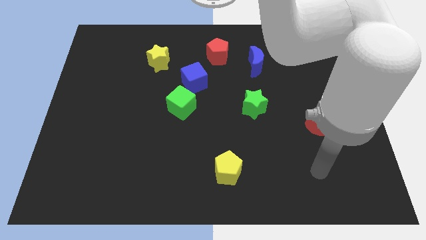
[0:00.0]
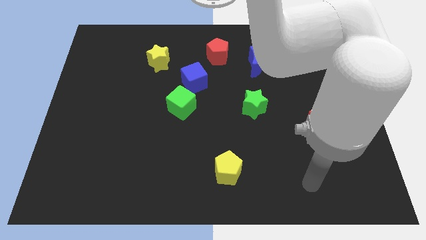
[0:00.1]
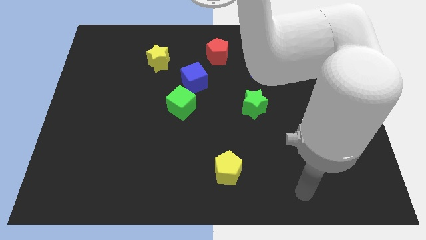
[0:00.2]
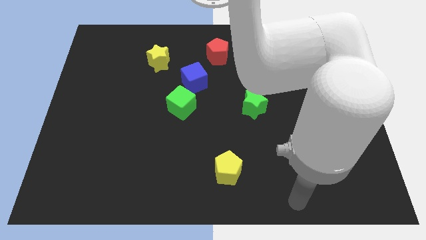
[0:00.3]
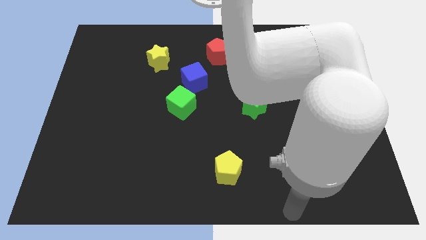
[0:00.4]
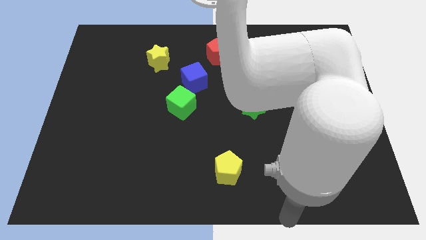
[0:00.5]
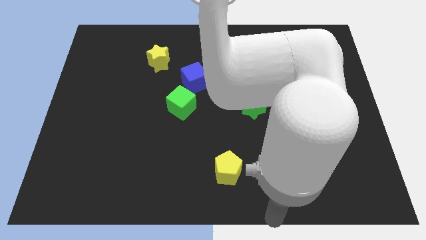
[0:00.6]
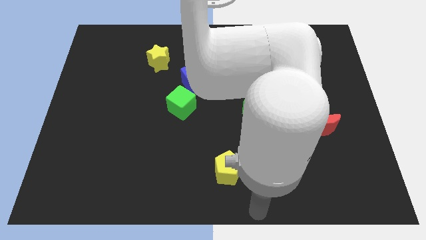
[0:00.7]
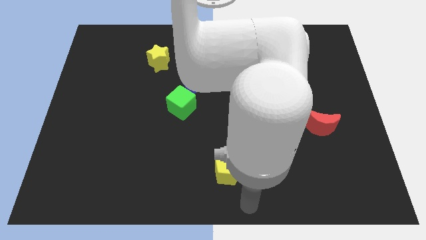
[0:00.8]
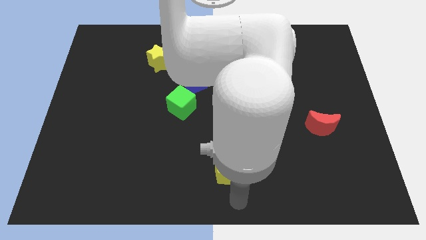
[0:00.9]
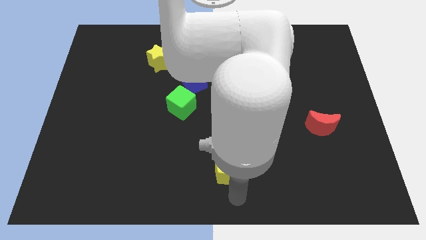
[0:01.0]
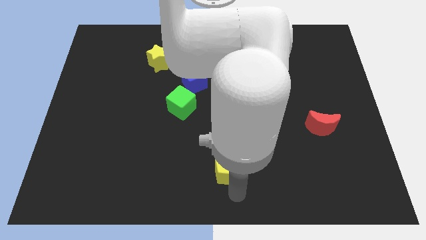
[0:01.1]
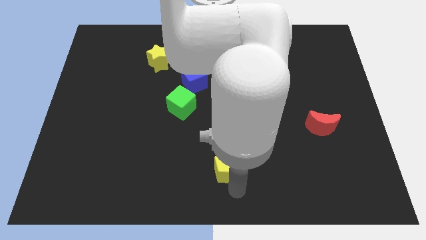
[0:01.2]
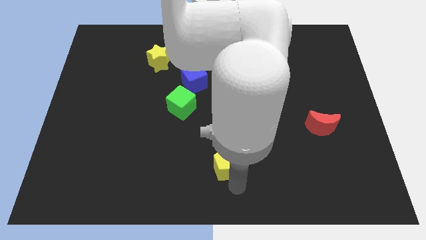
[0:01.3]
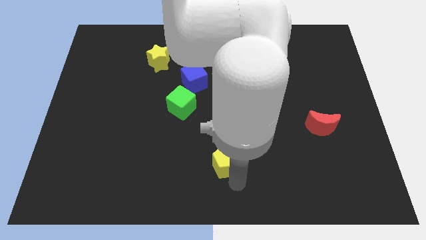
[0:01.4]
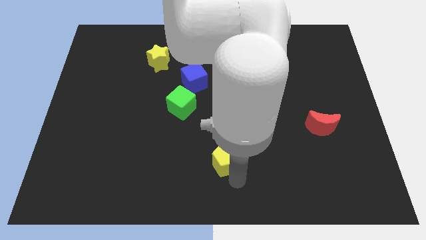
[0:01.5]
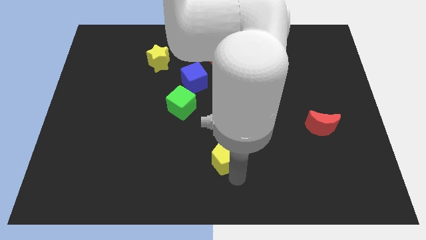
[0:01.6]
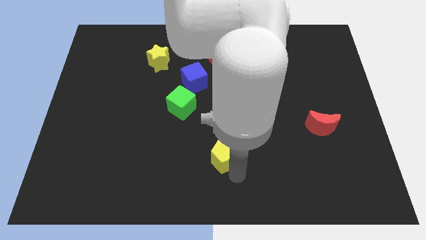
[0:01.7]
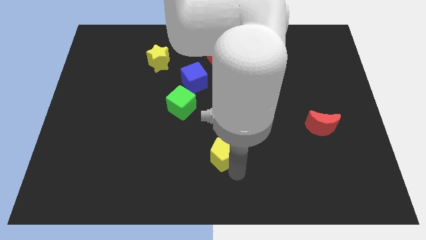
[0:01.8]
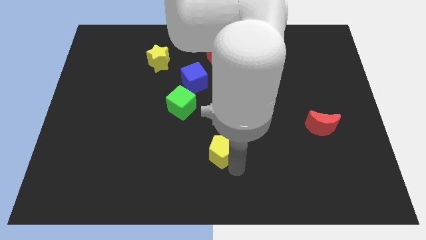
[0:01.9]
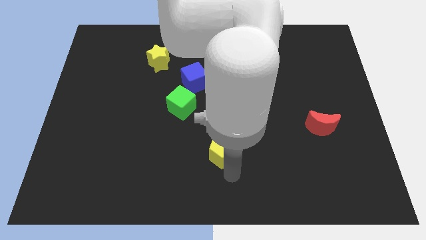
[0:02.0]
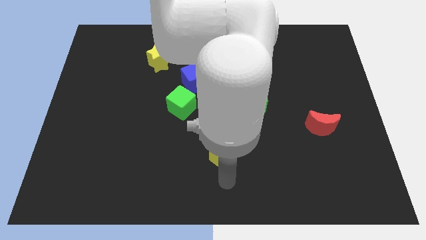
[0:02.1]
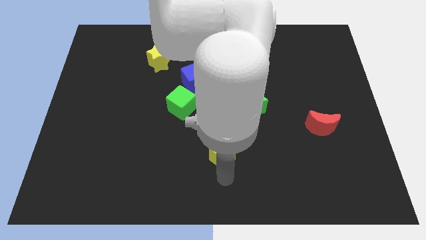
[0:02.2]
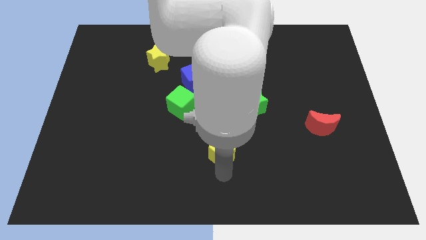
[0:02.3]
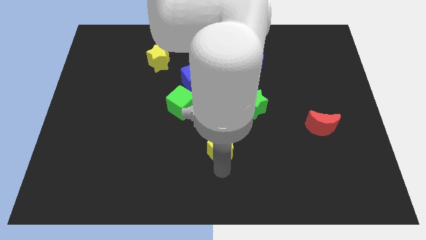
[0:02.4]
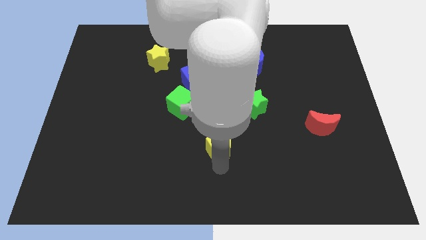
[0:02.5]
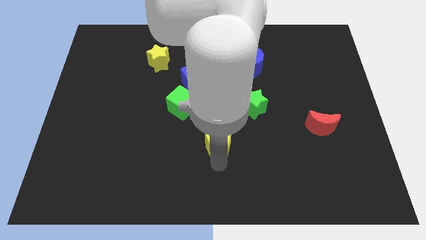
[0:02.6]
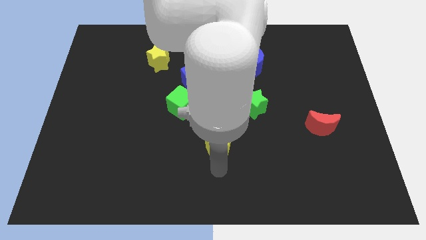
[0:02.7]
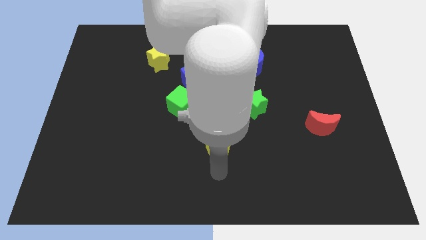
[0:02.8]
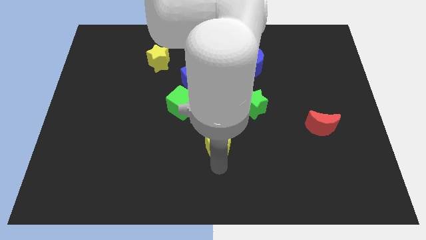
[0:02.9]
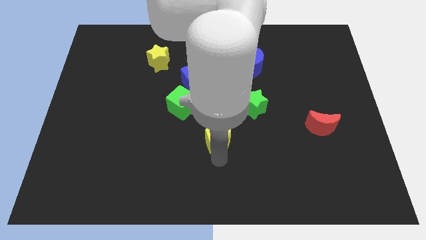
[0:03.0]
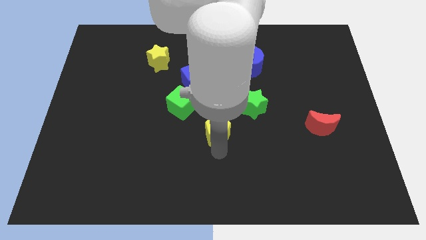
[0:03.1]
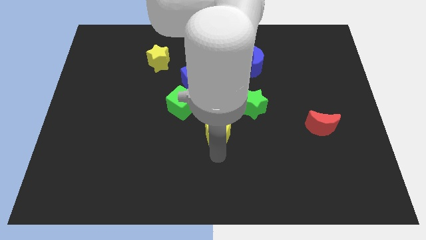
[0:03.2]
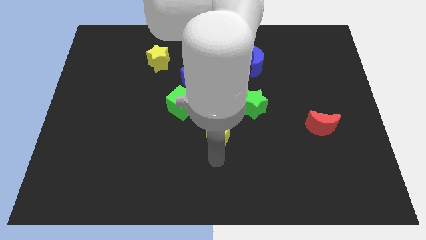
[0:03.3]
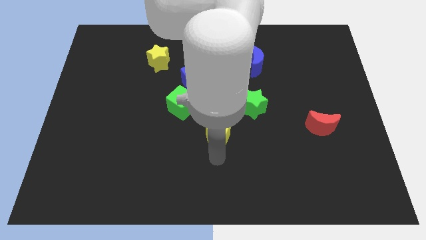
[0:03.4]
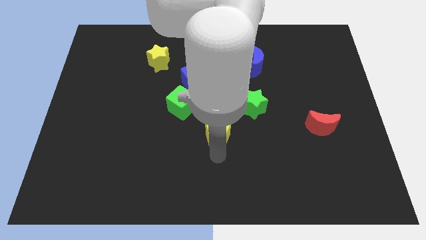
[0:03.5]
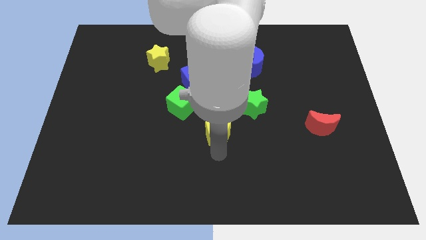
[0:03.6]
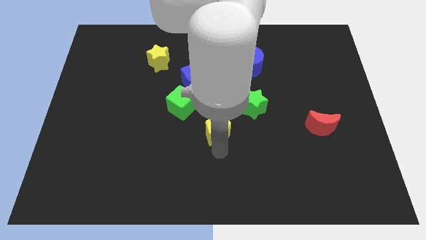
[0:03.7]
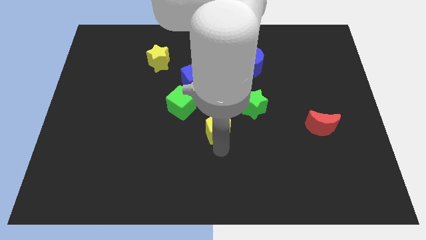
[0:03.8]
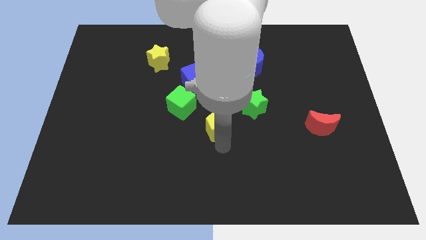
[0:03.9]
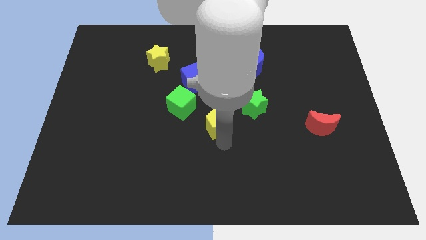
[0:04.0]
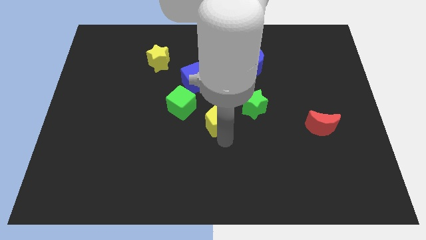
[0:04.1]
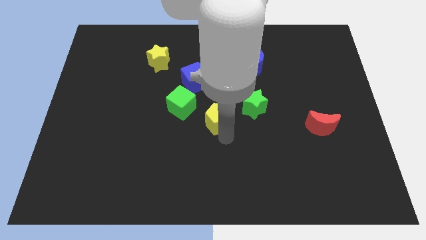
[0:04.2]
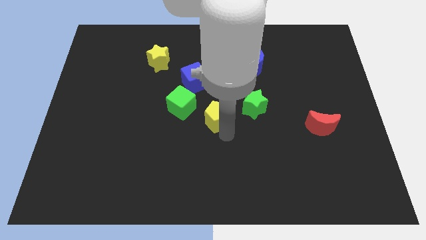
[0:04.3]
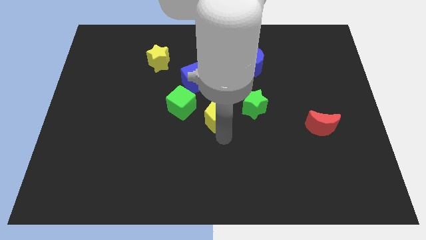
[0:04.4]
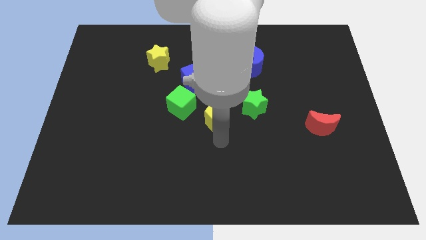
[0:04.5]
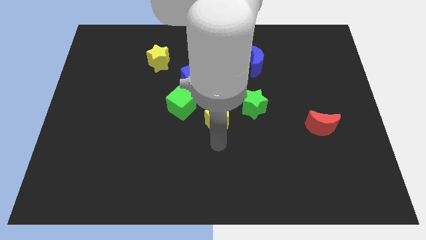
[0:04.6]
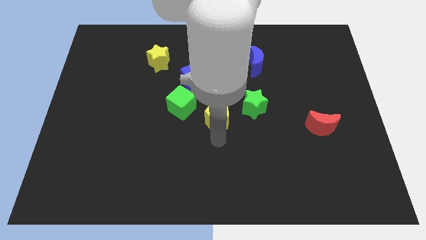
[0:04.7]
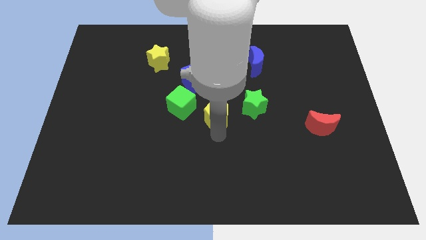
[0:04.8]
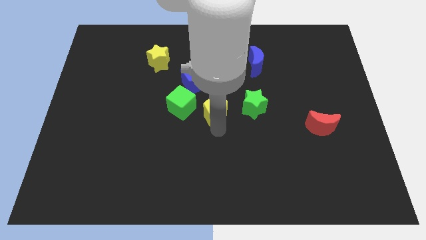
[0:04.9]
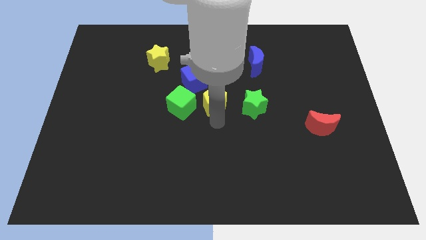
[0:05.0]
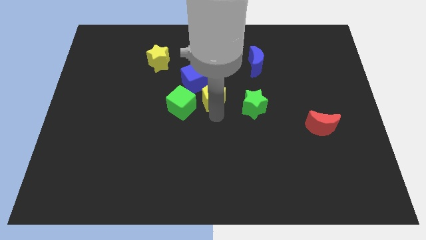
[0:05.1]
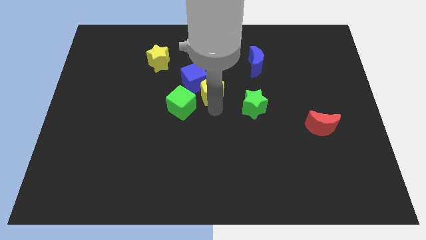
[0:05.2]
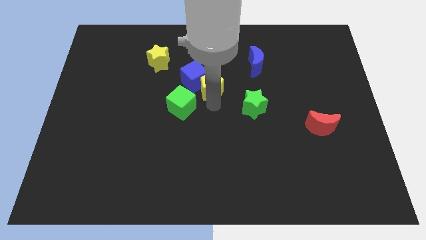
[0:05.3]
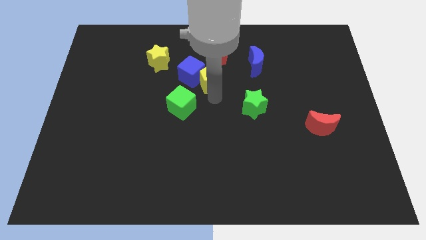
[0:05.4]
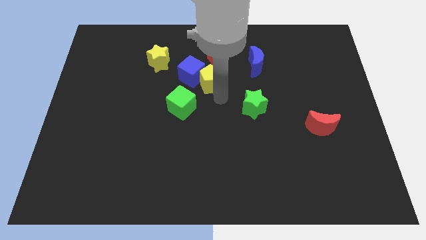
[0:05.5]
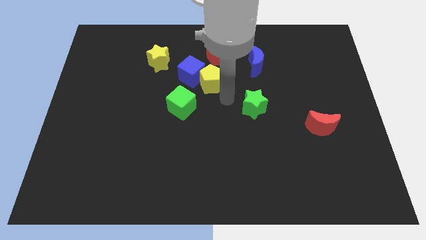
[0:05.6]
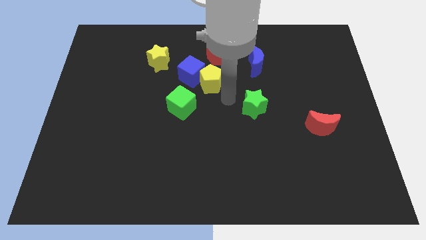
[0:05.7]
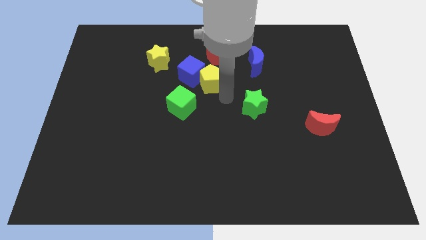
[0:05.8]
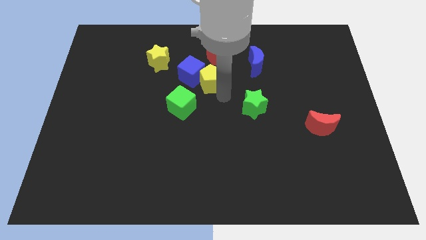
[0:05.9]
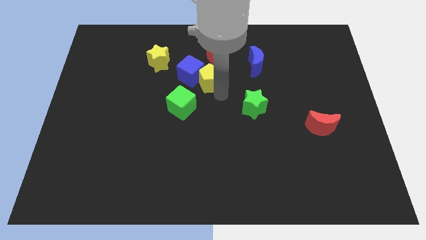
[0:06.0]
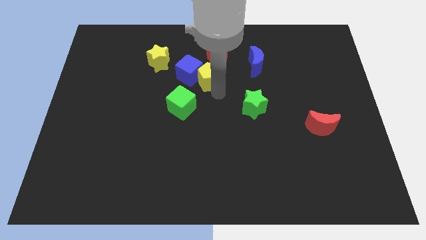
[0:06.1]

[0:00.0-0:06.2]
push the yellow pentagon diagonally down and to the left of the red pentagon

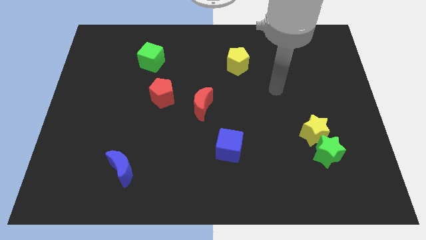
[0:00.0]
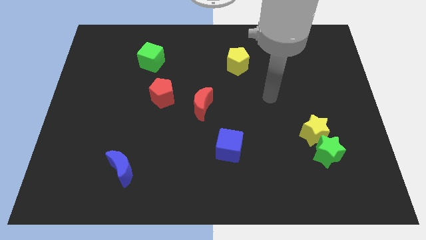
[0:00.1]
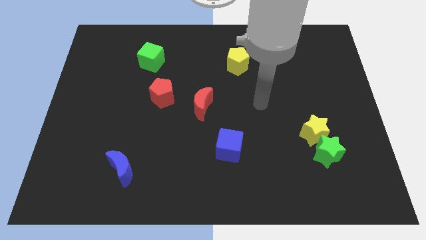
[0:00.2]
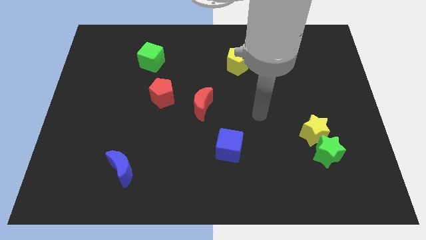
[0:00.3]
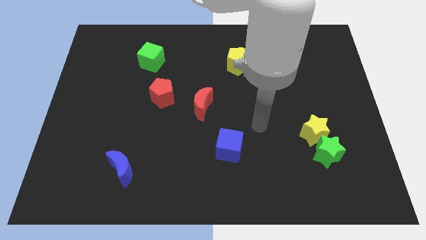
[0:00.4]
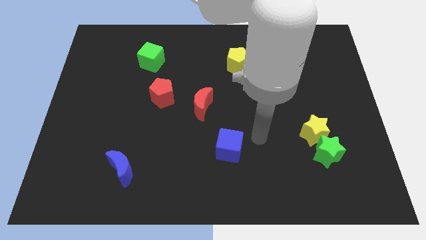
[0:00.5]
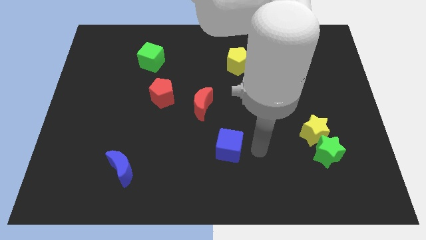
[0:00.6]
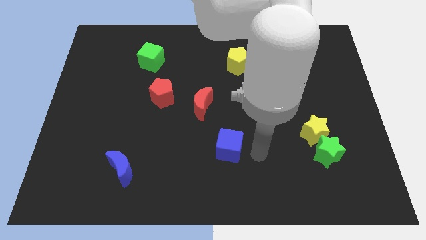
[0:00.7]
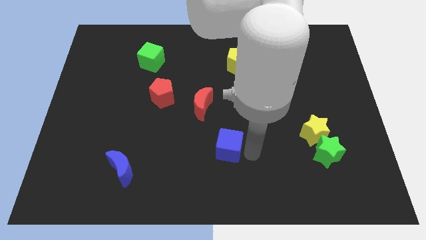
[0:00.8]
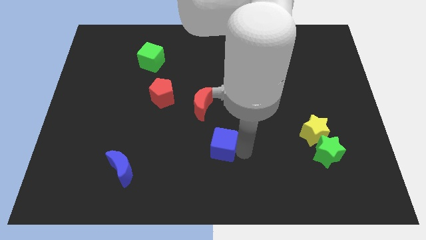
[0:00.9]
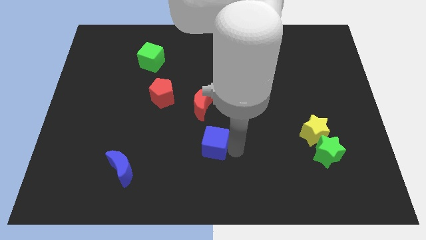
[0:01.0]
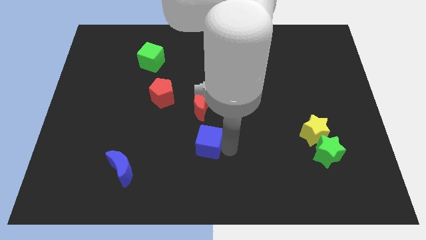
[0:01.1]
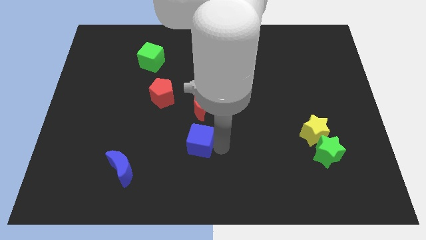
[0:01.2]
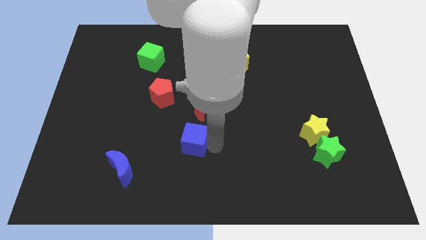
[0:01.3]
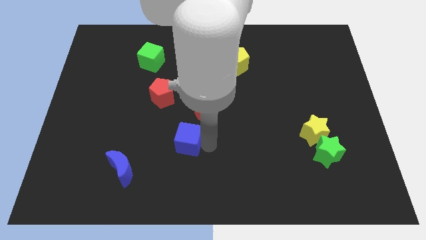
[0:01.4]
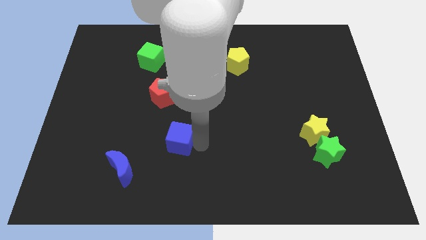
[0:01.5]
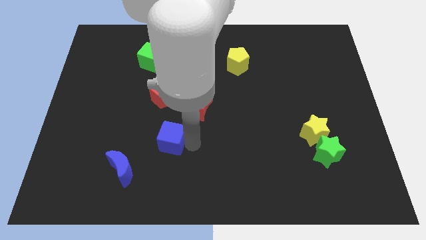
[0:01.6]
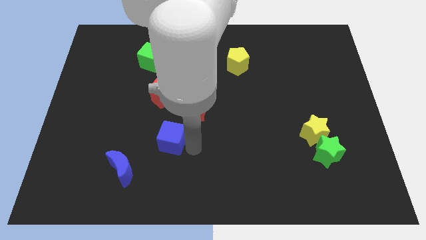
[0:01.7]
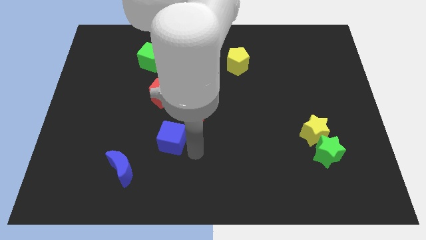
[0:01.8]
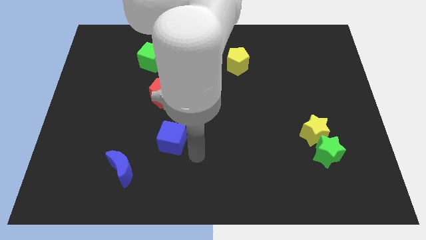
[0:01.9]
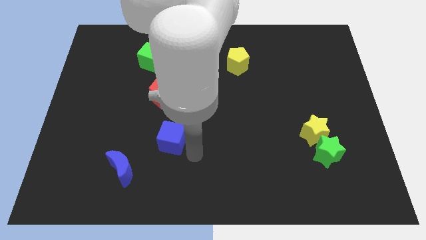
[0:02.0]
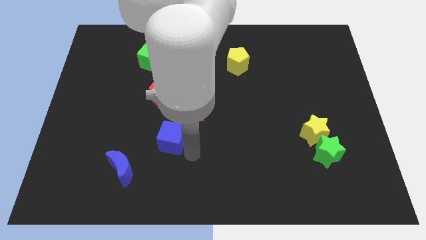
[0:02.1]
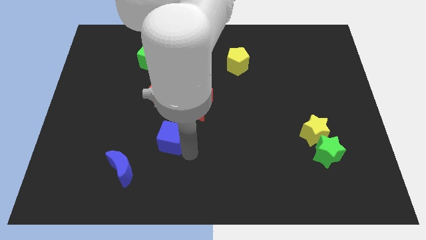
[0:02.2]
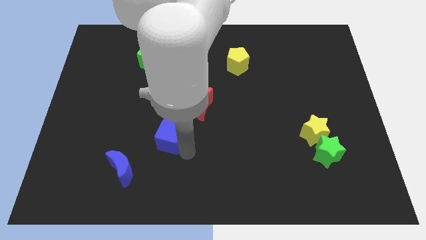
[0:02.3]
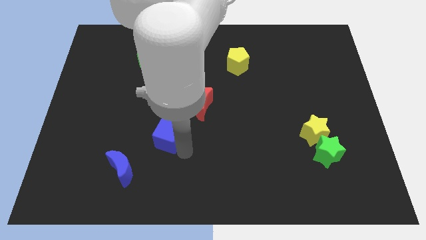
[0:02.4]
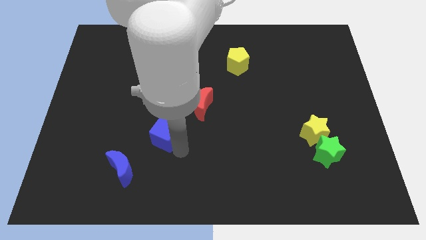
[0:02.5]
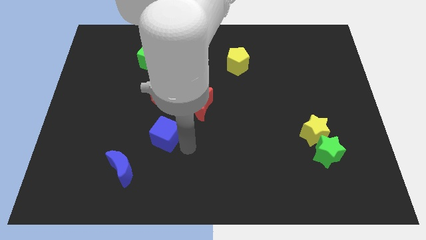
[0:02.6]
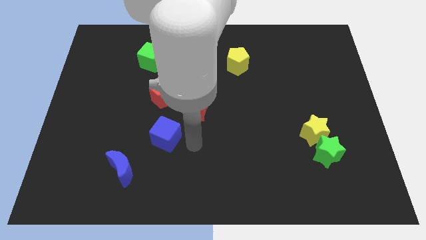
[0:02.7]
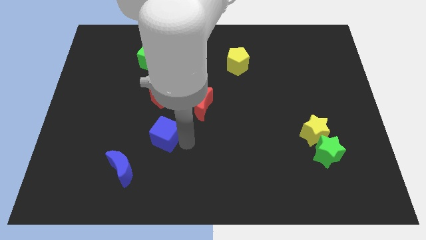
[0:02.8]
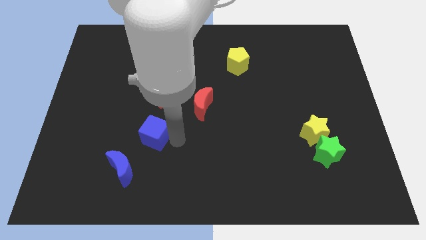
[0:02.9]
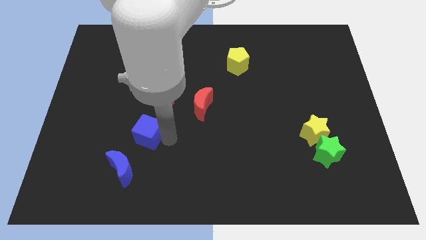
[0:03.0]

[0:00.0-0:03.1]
put the blue cube to the top side of the blue moon
